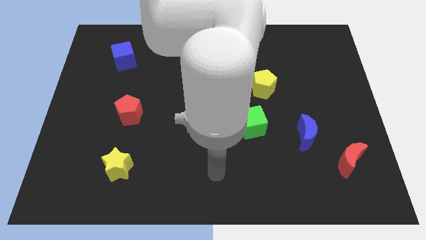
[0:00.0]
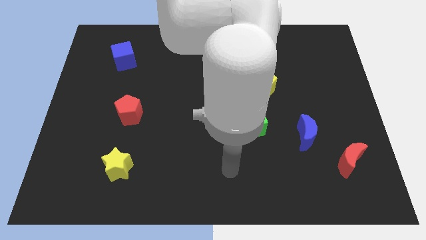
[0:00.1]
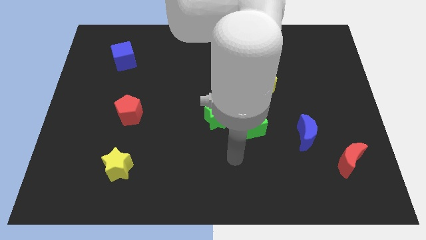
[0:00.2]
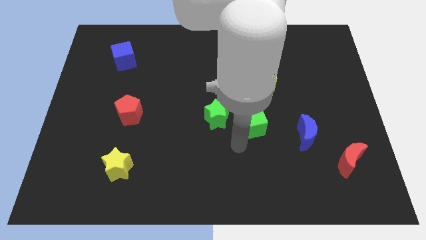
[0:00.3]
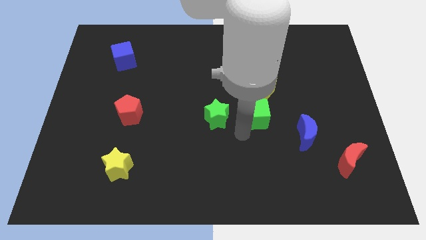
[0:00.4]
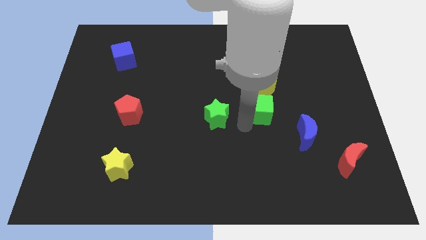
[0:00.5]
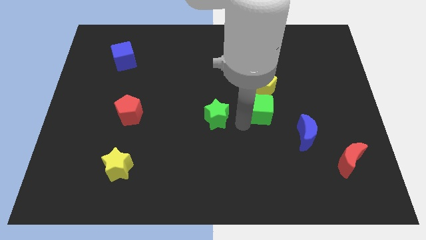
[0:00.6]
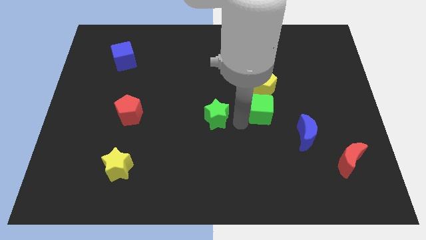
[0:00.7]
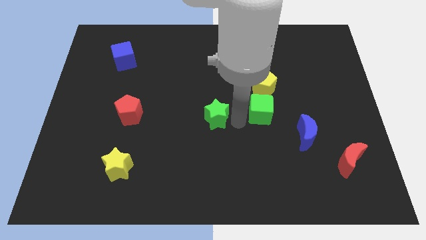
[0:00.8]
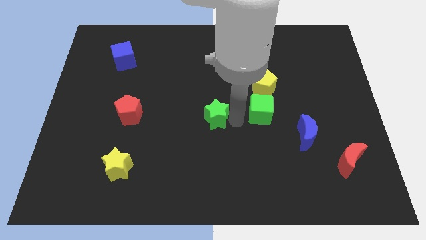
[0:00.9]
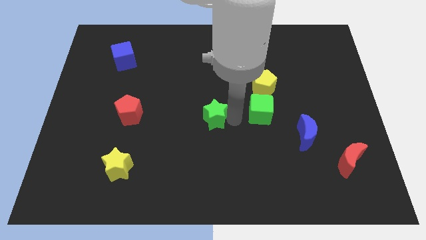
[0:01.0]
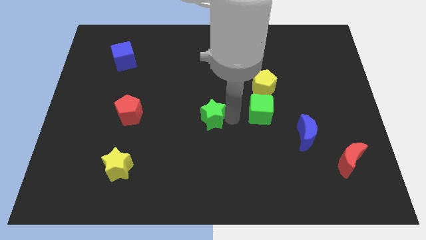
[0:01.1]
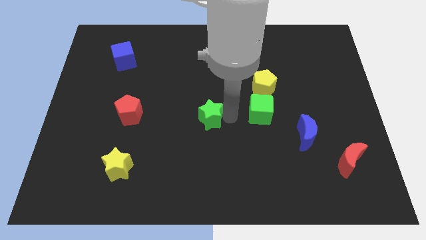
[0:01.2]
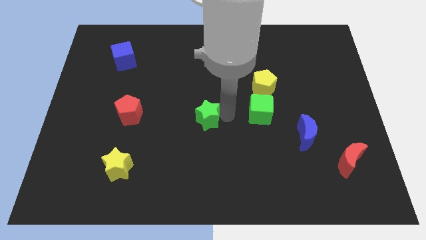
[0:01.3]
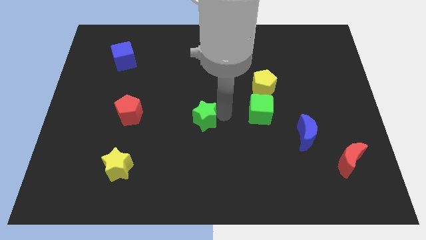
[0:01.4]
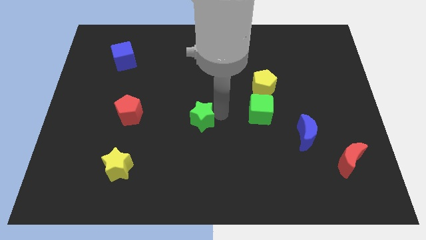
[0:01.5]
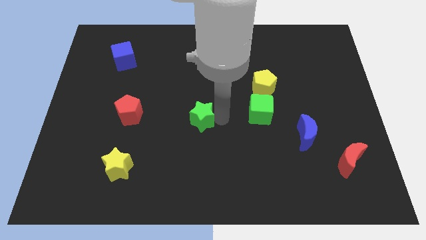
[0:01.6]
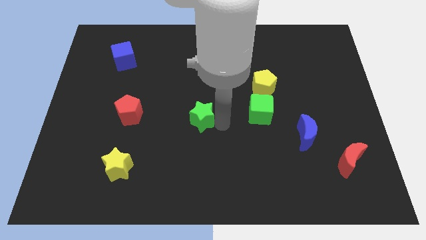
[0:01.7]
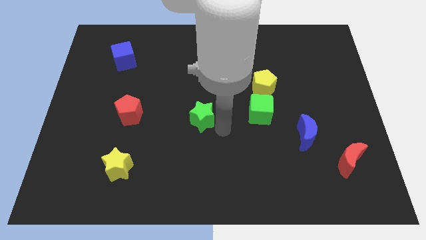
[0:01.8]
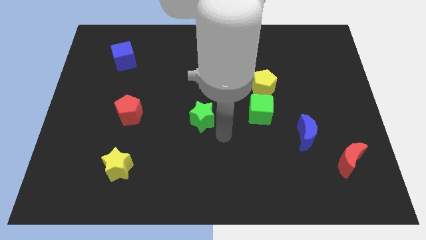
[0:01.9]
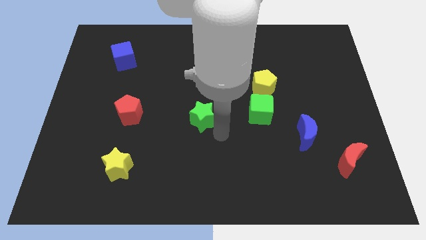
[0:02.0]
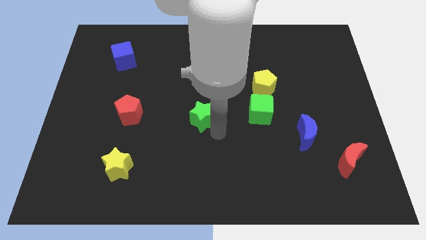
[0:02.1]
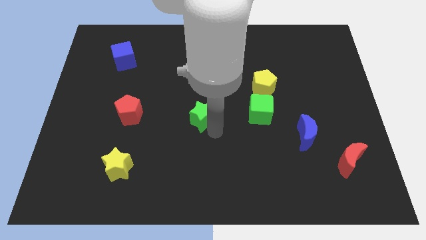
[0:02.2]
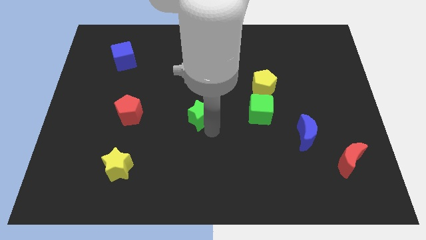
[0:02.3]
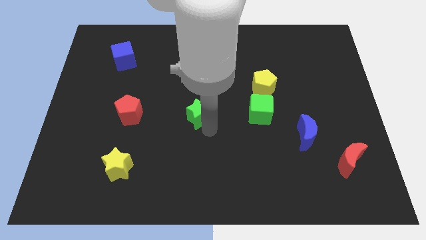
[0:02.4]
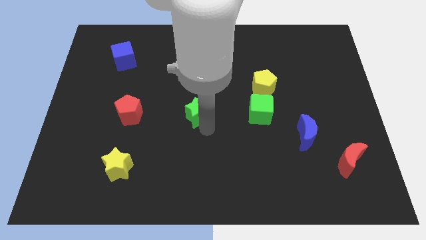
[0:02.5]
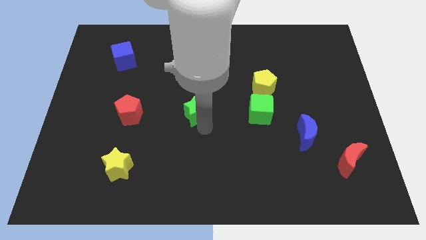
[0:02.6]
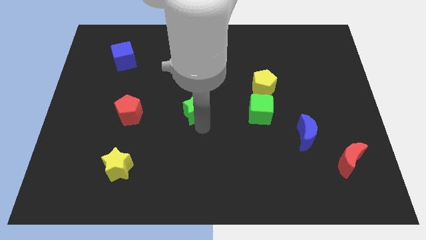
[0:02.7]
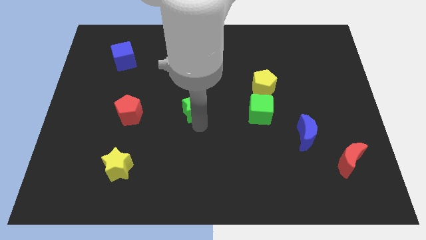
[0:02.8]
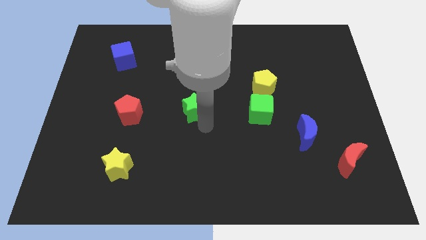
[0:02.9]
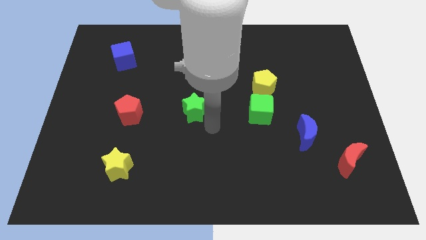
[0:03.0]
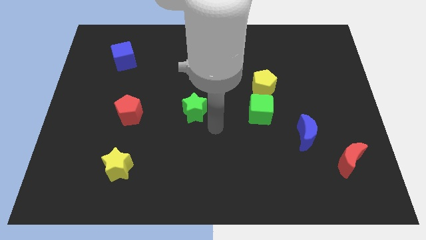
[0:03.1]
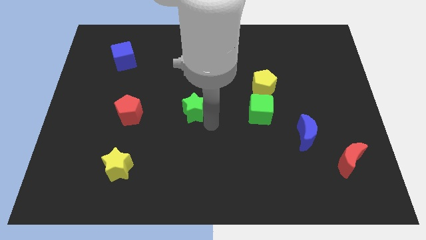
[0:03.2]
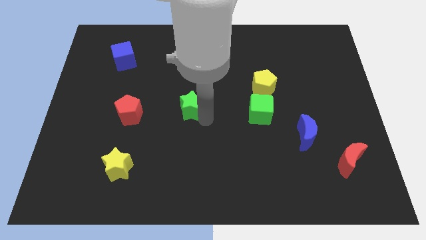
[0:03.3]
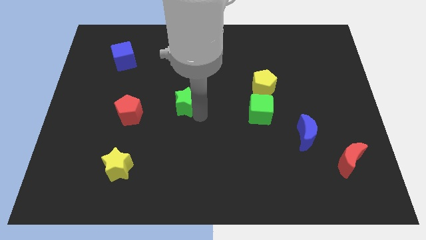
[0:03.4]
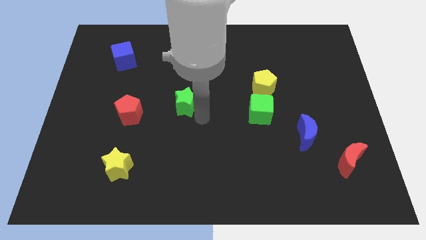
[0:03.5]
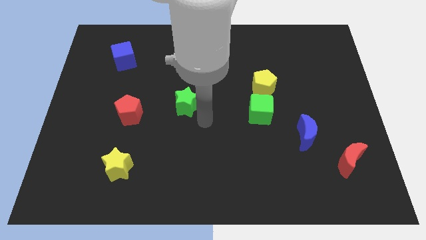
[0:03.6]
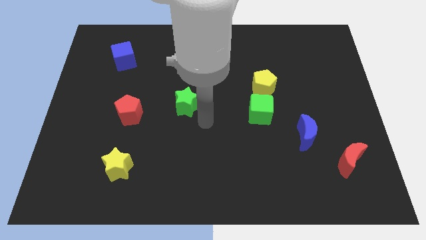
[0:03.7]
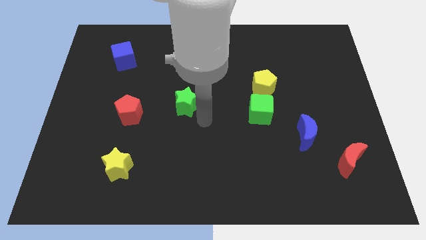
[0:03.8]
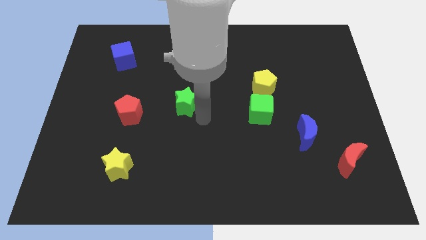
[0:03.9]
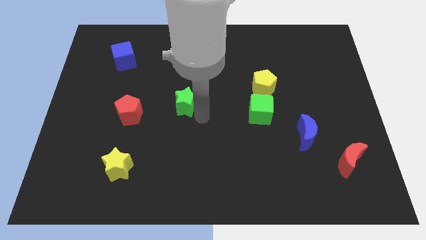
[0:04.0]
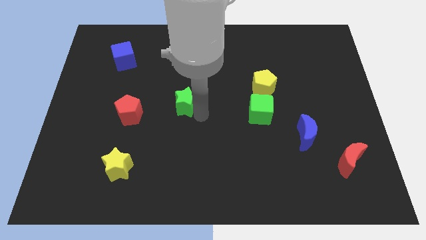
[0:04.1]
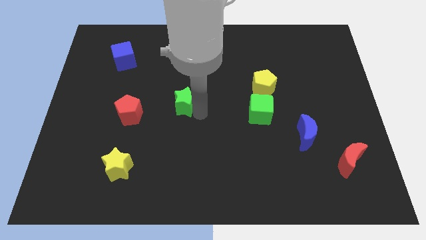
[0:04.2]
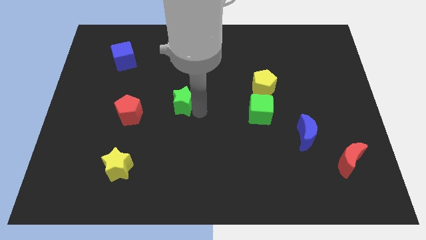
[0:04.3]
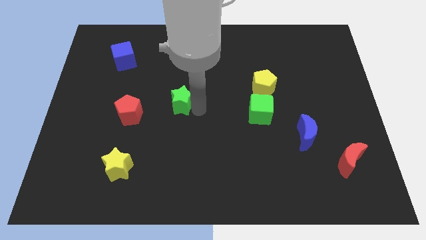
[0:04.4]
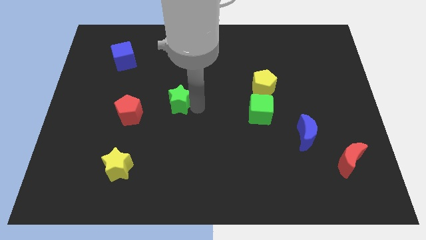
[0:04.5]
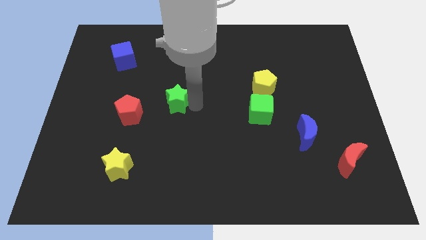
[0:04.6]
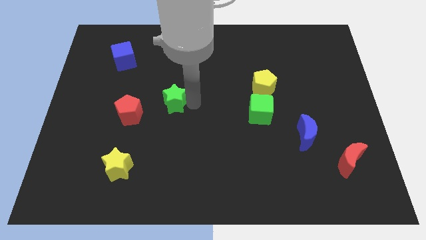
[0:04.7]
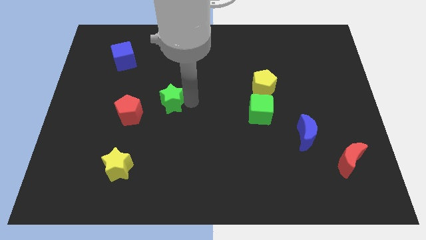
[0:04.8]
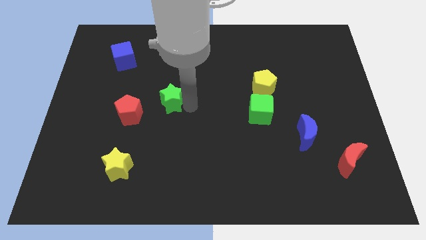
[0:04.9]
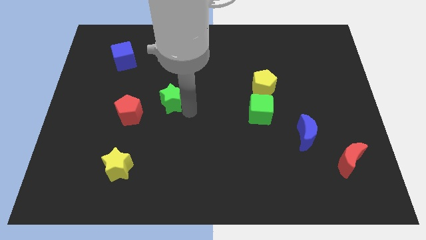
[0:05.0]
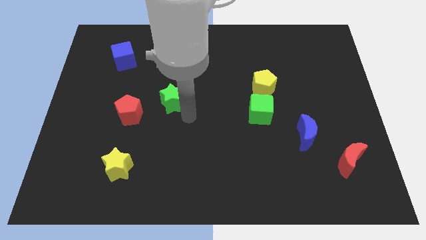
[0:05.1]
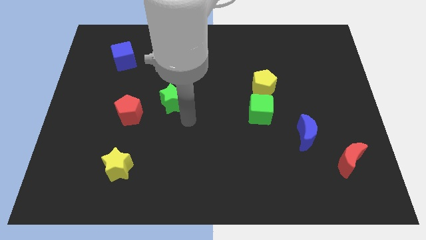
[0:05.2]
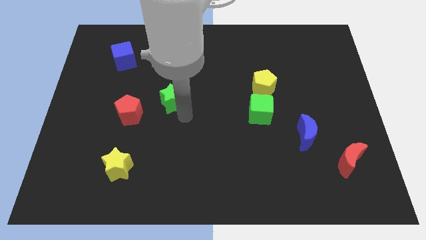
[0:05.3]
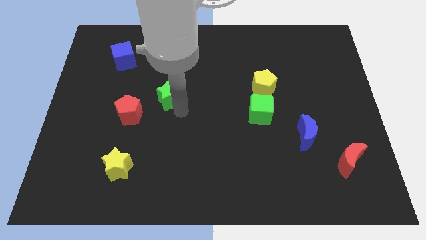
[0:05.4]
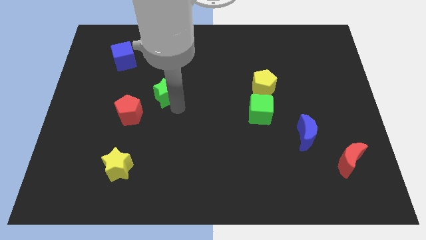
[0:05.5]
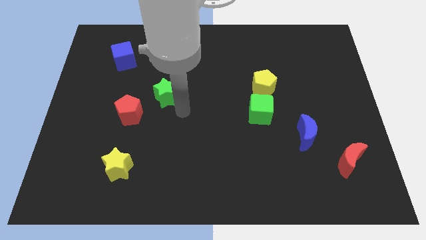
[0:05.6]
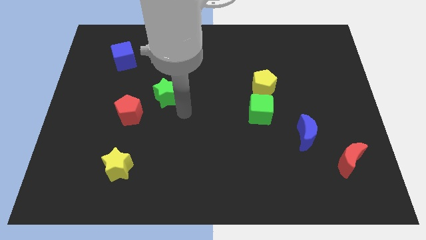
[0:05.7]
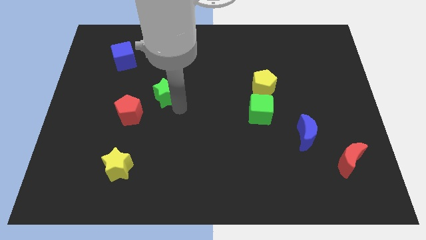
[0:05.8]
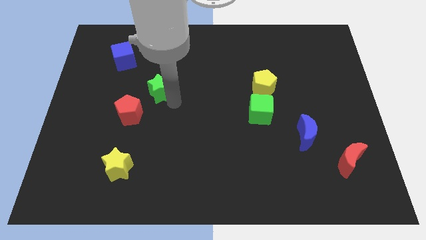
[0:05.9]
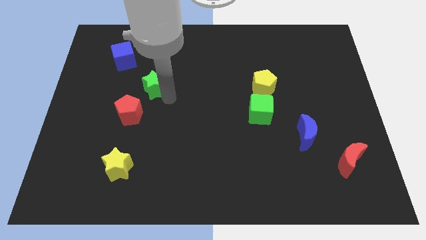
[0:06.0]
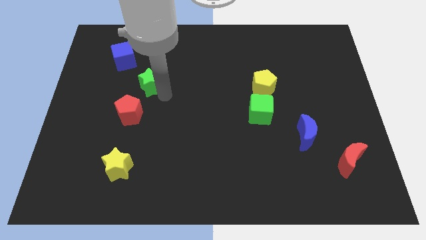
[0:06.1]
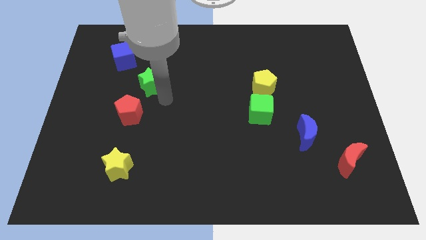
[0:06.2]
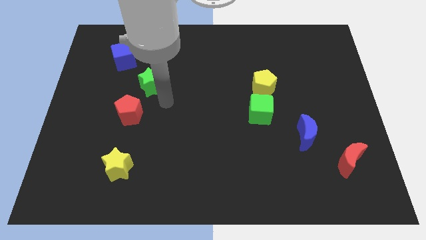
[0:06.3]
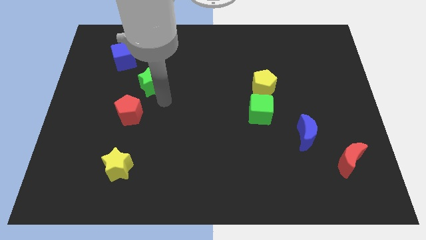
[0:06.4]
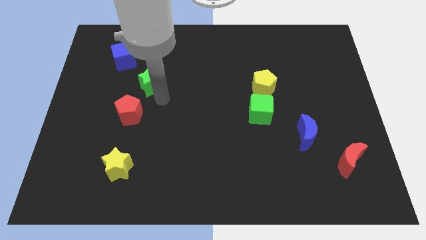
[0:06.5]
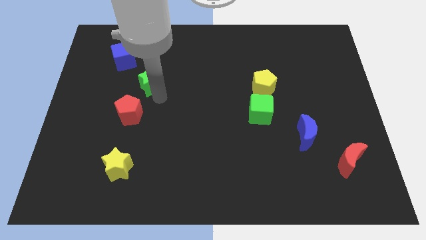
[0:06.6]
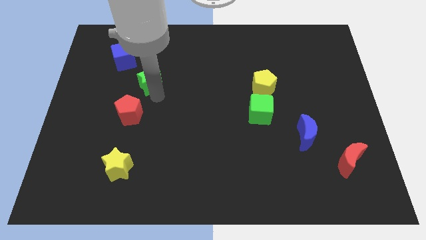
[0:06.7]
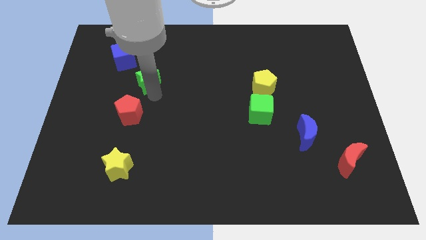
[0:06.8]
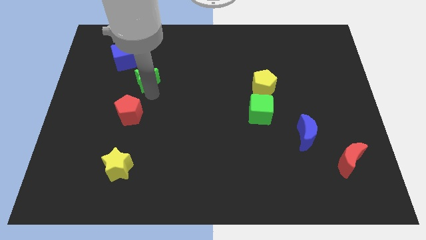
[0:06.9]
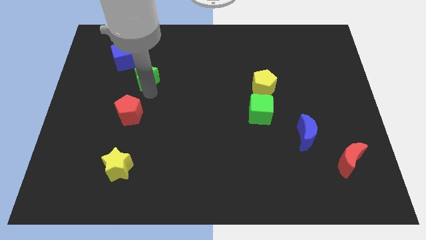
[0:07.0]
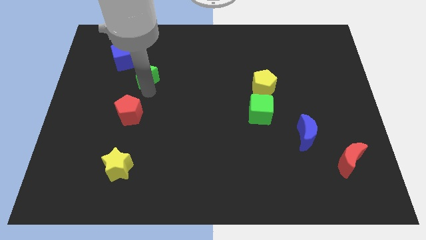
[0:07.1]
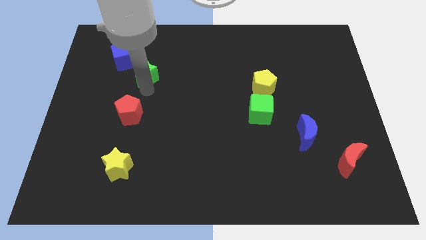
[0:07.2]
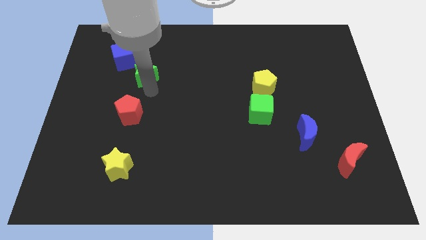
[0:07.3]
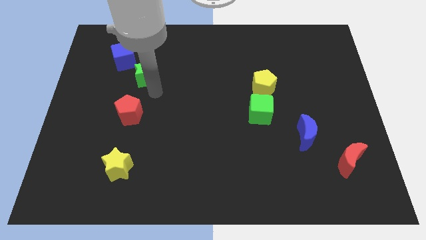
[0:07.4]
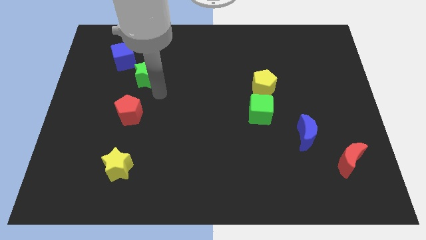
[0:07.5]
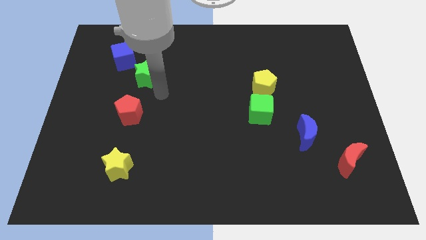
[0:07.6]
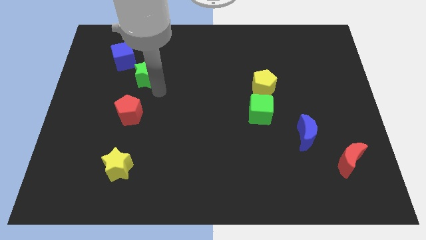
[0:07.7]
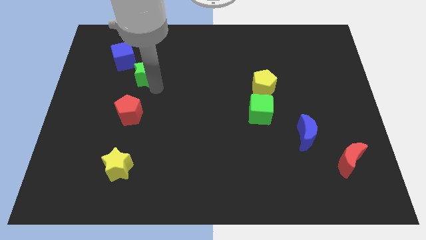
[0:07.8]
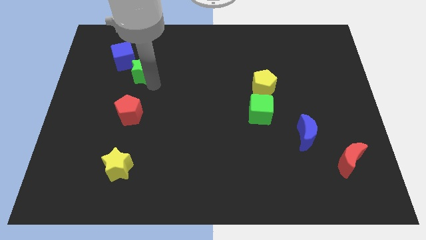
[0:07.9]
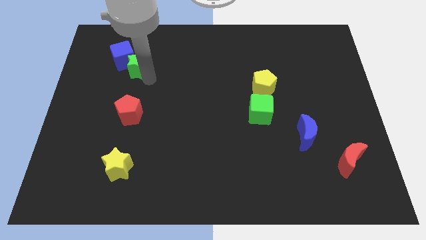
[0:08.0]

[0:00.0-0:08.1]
slide the green star next to the blue cube
